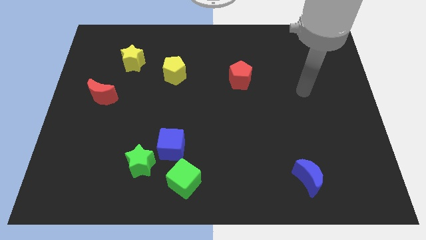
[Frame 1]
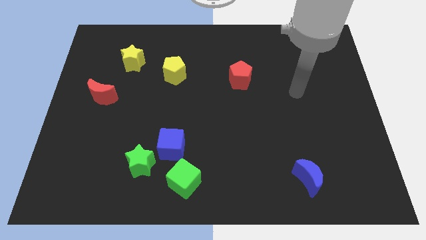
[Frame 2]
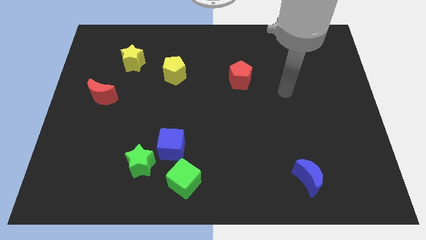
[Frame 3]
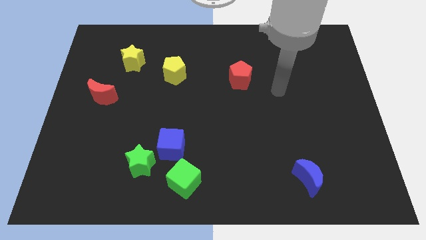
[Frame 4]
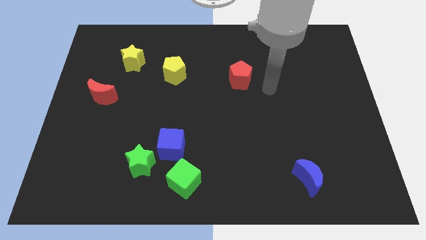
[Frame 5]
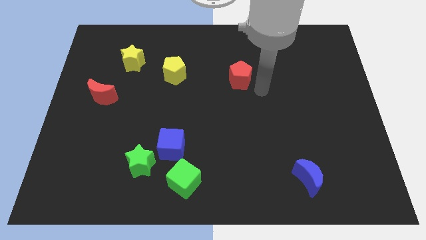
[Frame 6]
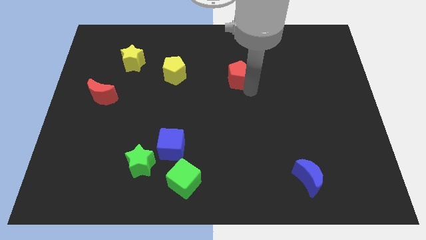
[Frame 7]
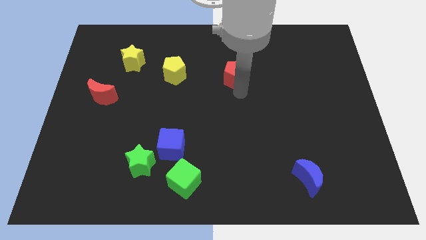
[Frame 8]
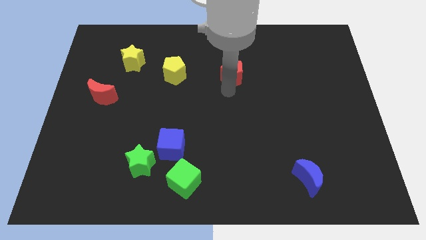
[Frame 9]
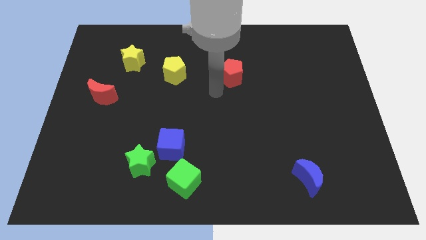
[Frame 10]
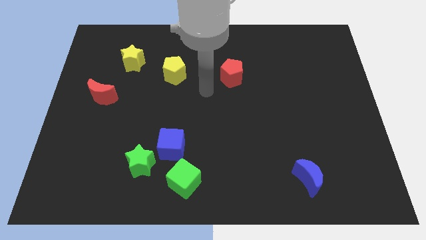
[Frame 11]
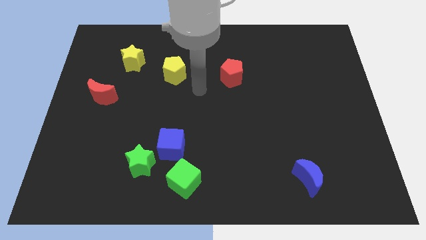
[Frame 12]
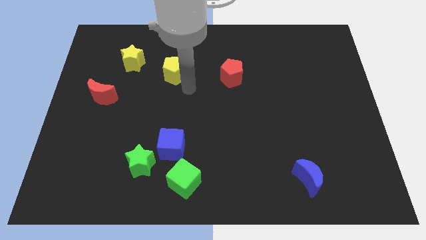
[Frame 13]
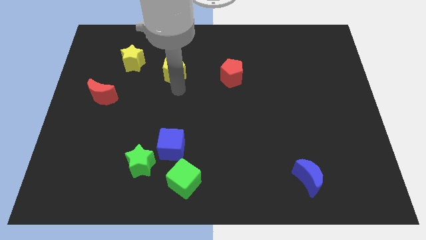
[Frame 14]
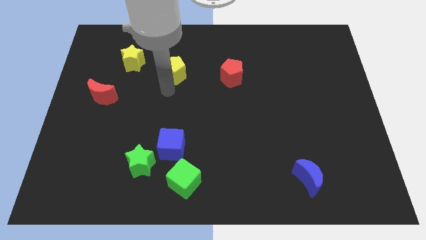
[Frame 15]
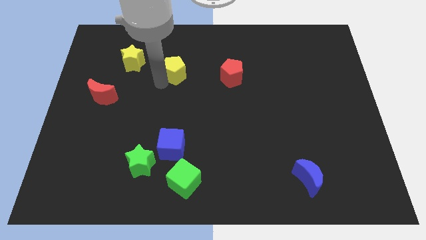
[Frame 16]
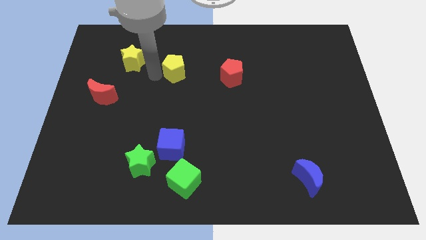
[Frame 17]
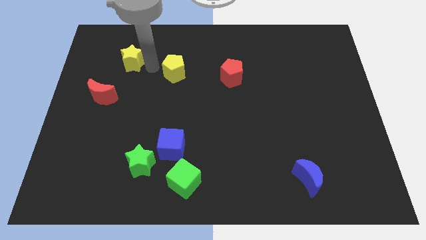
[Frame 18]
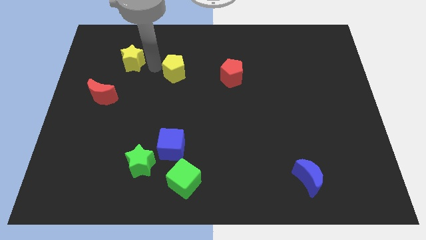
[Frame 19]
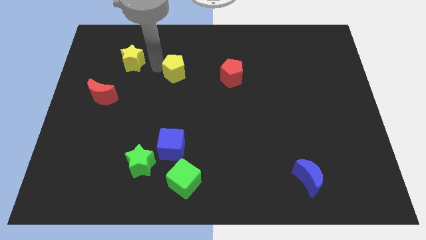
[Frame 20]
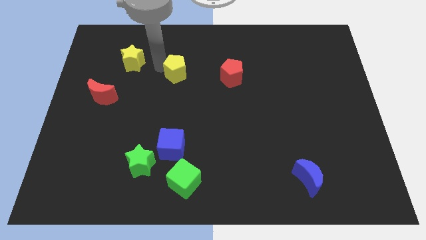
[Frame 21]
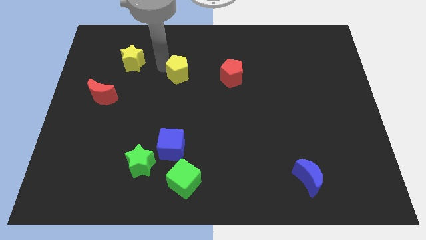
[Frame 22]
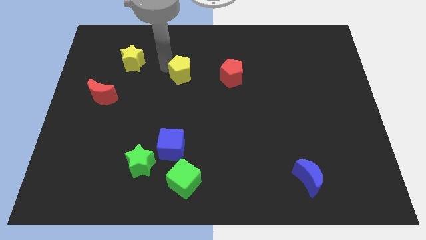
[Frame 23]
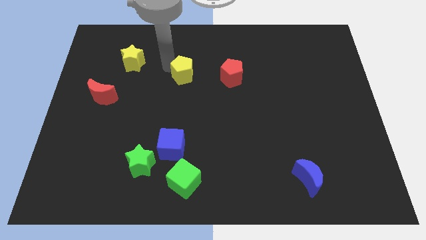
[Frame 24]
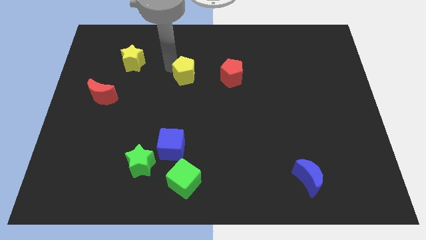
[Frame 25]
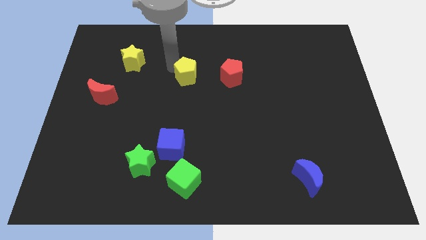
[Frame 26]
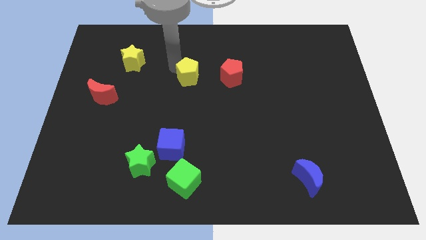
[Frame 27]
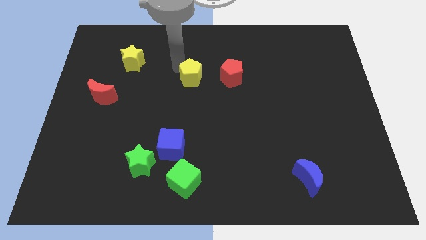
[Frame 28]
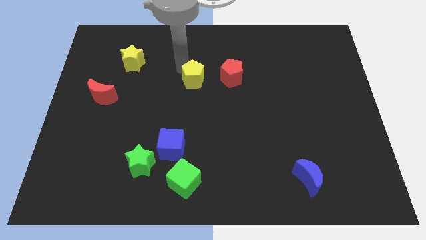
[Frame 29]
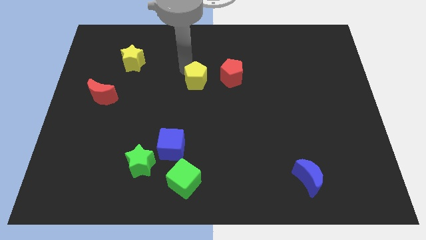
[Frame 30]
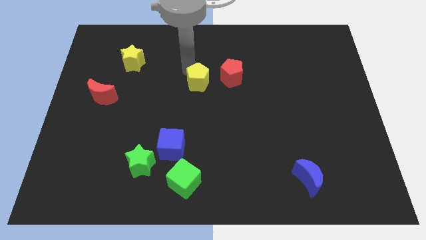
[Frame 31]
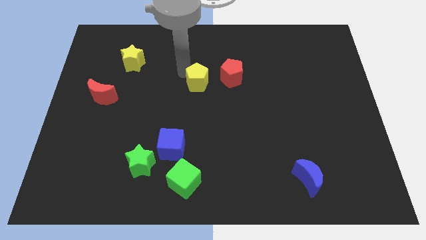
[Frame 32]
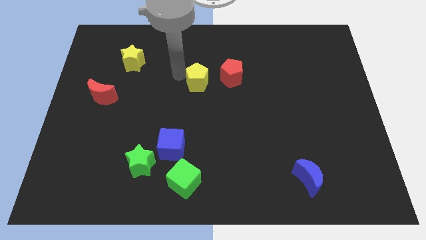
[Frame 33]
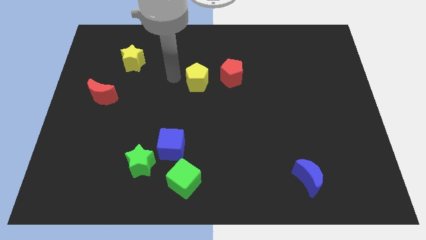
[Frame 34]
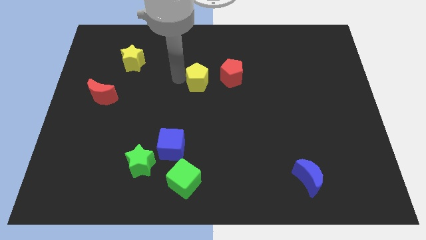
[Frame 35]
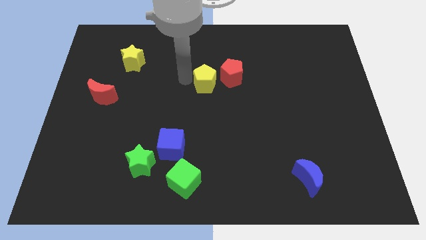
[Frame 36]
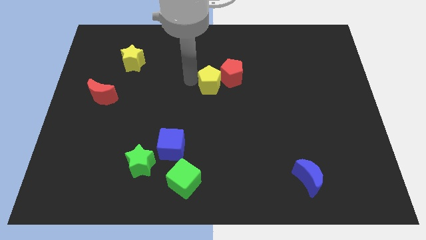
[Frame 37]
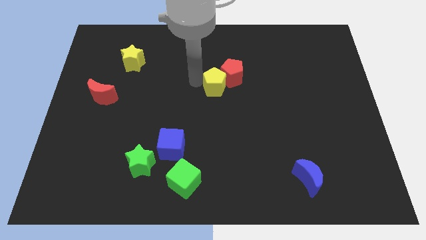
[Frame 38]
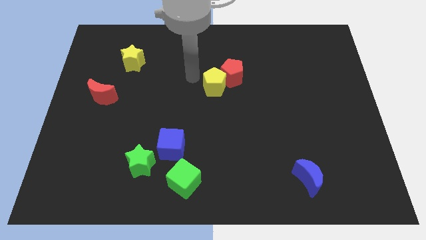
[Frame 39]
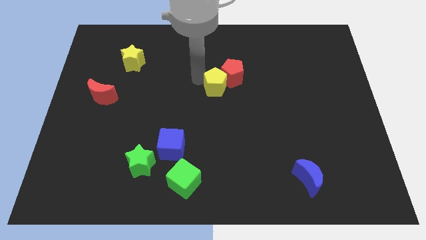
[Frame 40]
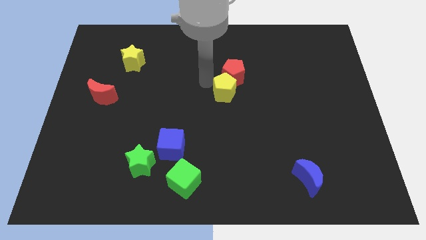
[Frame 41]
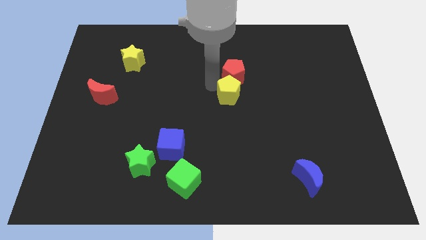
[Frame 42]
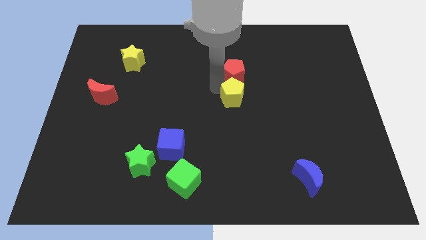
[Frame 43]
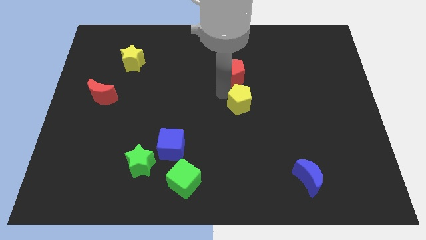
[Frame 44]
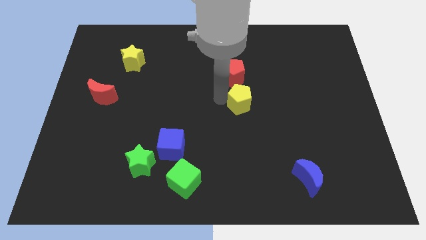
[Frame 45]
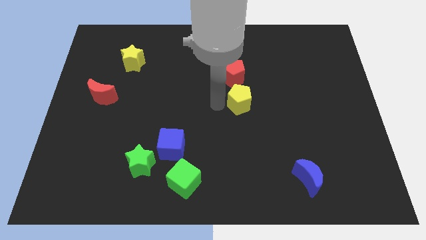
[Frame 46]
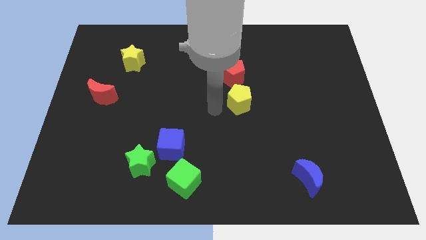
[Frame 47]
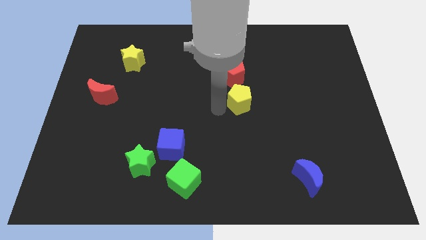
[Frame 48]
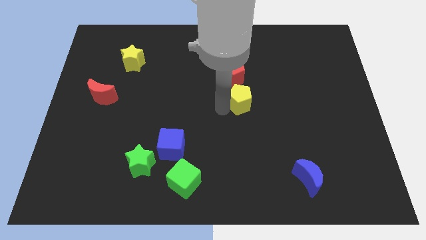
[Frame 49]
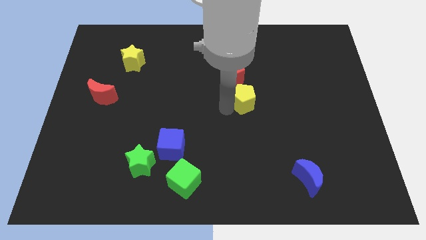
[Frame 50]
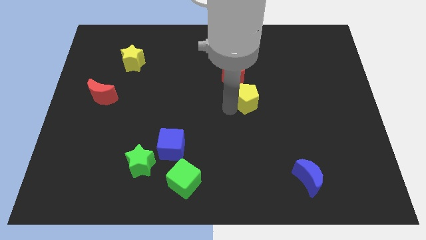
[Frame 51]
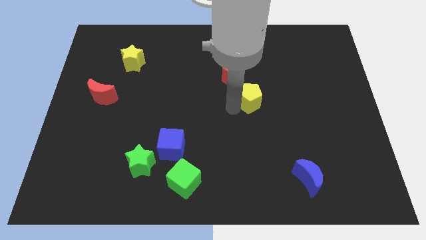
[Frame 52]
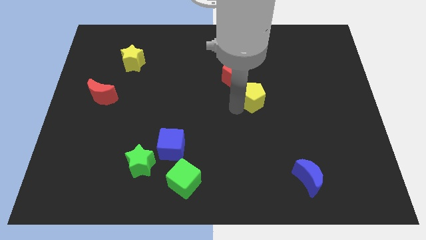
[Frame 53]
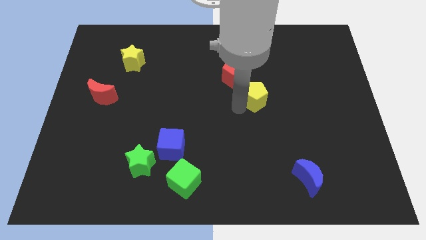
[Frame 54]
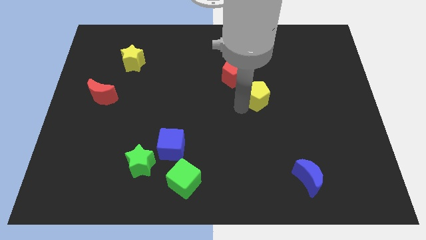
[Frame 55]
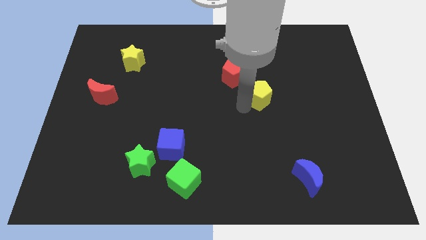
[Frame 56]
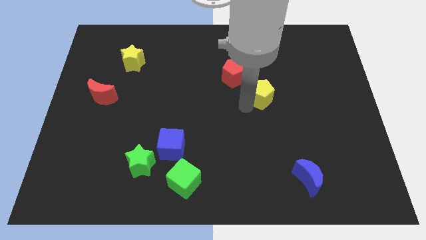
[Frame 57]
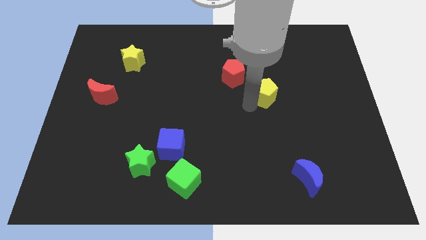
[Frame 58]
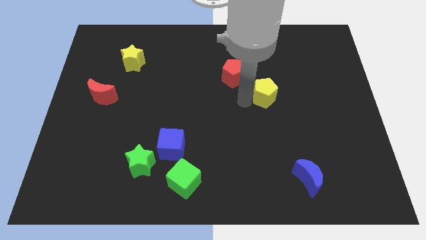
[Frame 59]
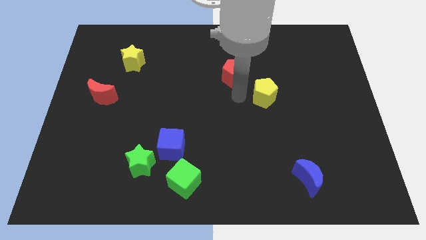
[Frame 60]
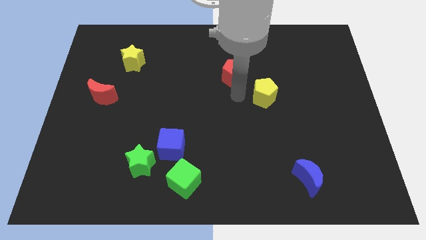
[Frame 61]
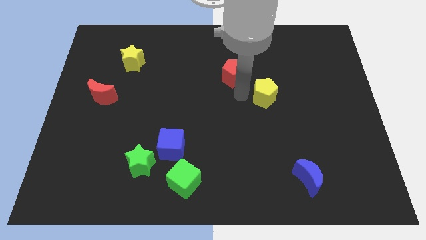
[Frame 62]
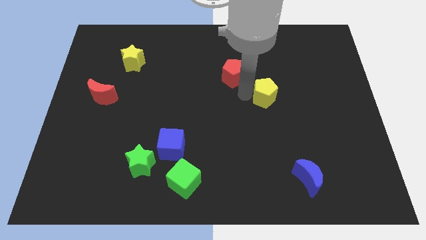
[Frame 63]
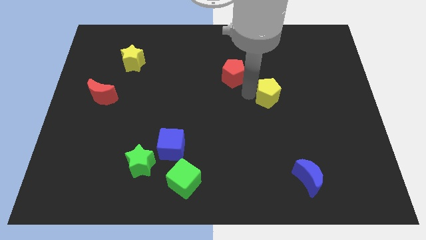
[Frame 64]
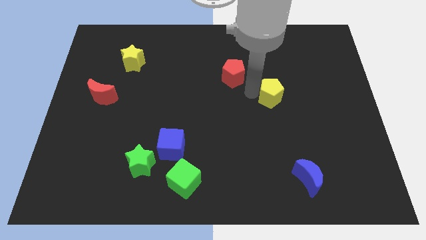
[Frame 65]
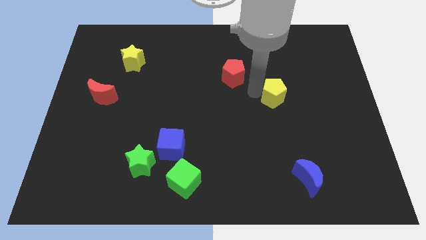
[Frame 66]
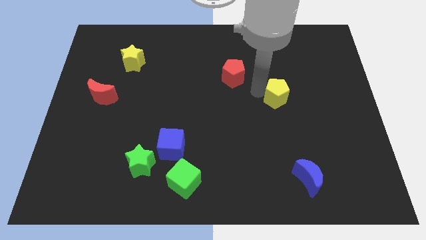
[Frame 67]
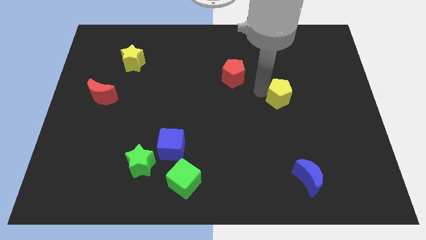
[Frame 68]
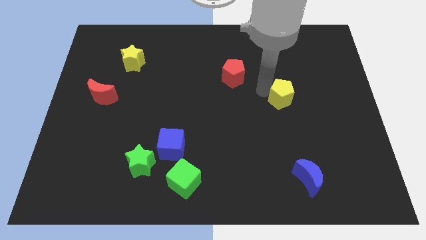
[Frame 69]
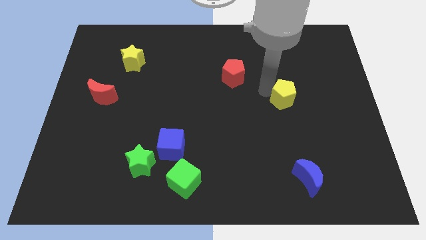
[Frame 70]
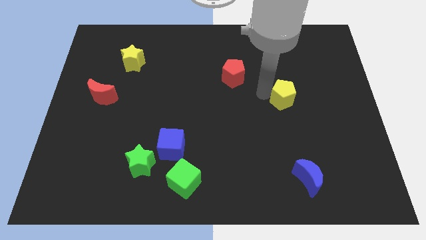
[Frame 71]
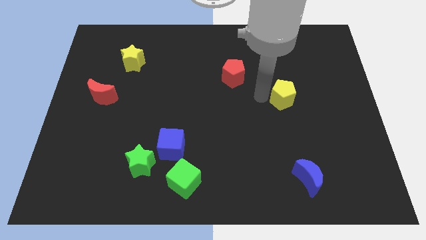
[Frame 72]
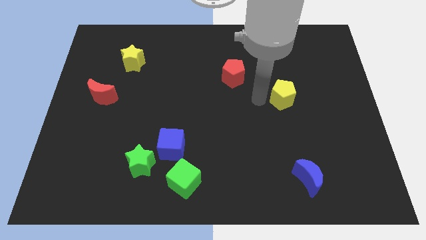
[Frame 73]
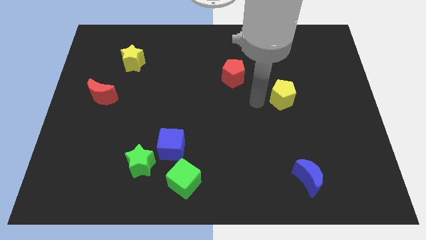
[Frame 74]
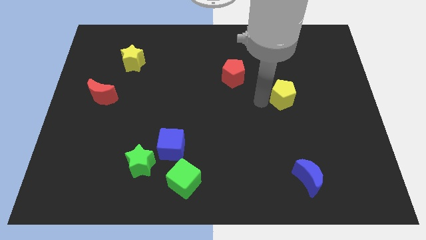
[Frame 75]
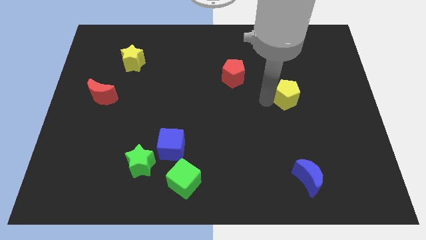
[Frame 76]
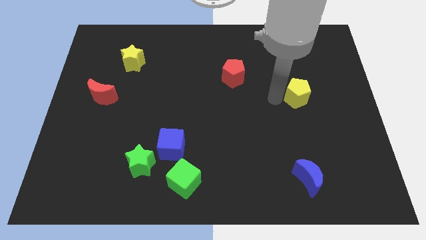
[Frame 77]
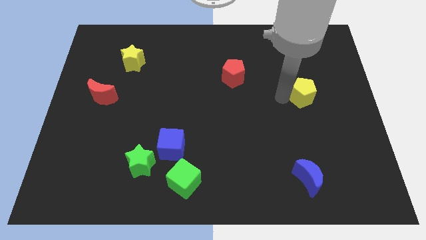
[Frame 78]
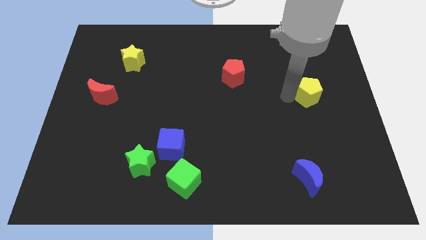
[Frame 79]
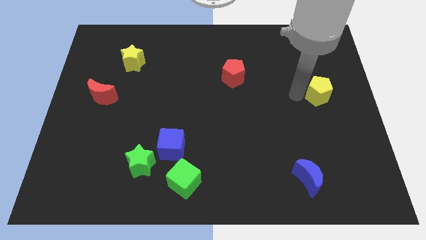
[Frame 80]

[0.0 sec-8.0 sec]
push the yellow pentagon to the right side of the board
